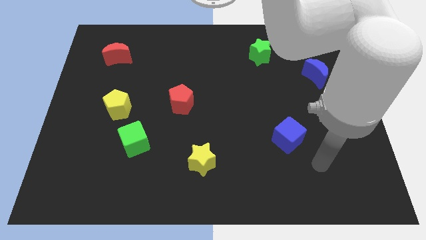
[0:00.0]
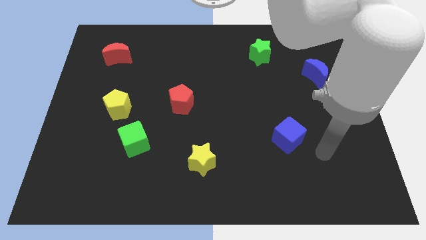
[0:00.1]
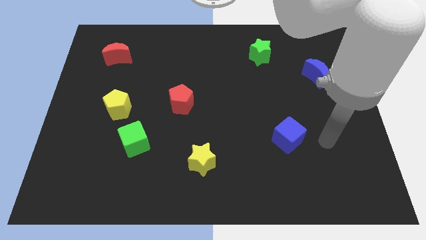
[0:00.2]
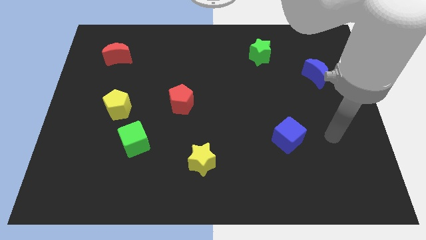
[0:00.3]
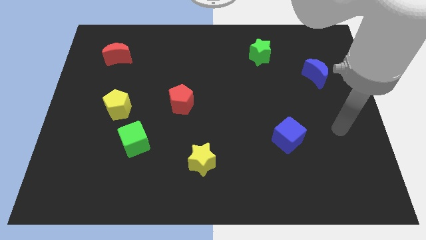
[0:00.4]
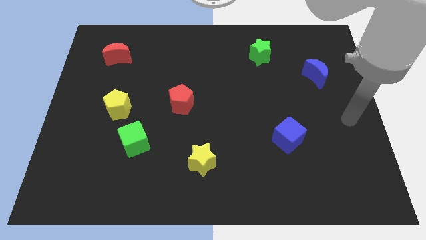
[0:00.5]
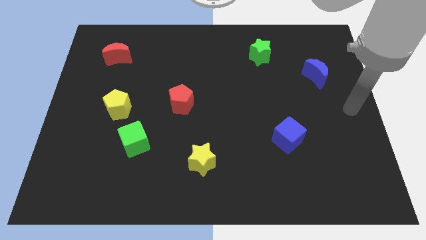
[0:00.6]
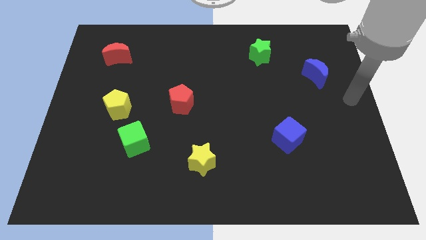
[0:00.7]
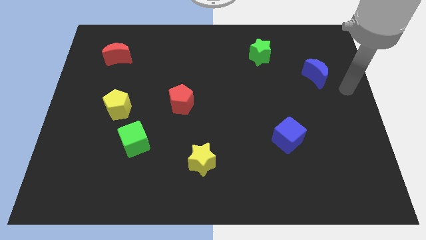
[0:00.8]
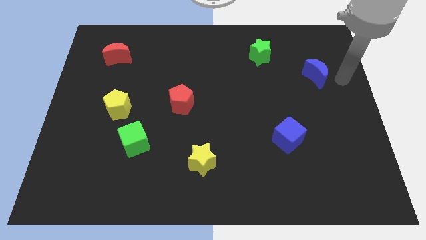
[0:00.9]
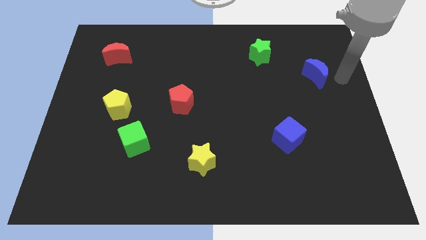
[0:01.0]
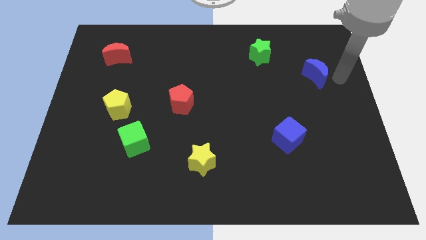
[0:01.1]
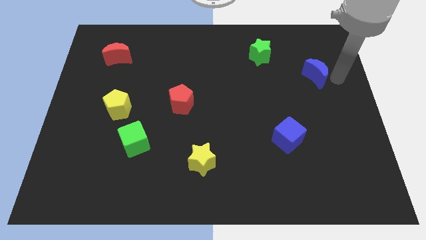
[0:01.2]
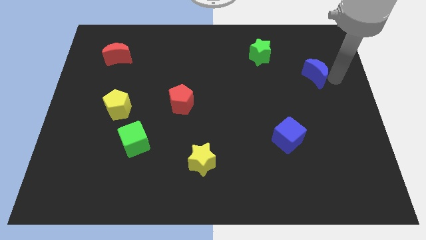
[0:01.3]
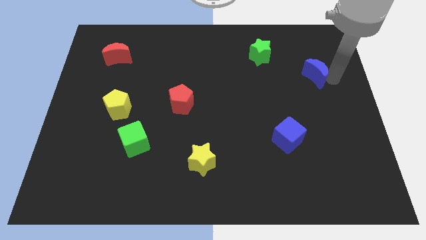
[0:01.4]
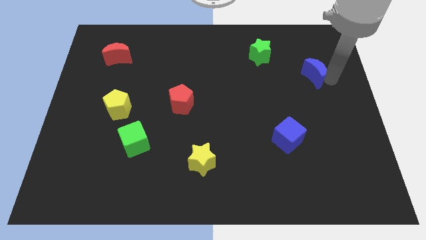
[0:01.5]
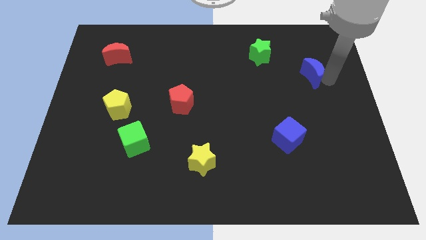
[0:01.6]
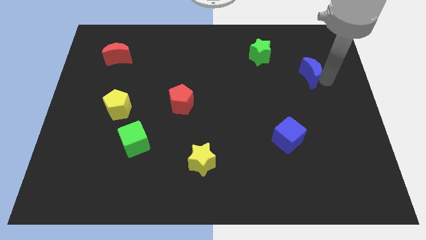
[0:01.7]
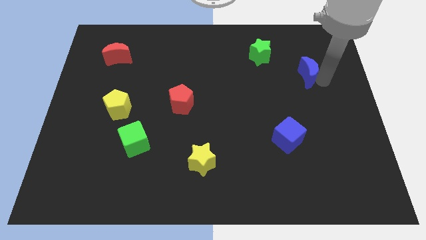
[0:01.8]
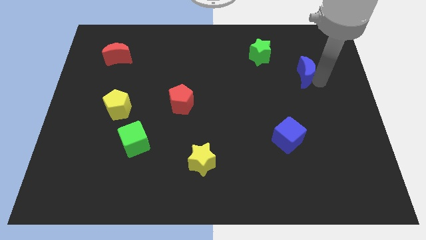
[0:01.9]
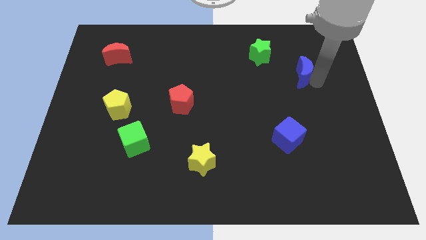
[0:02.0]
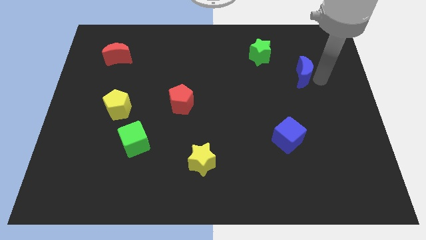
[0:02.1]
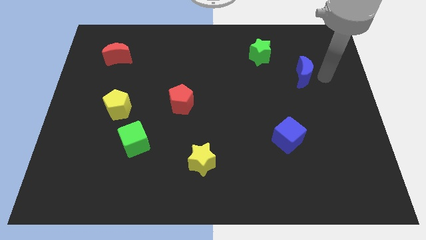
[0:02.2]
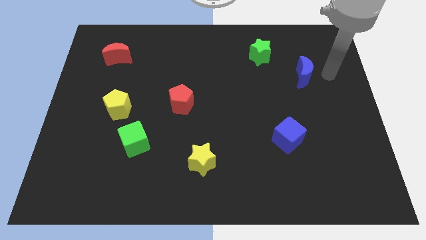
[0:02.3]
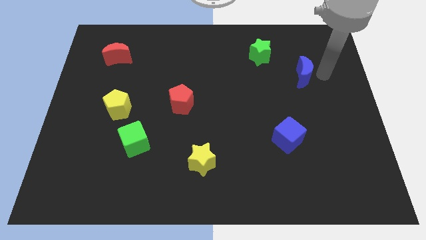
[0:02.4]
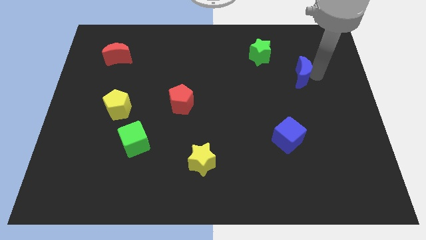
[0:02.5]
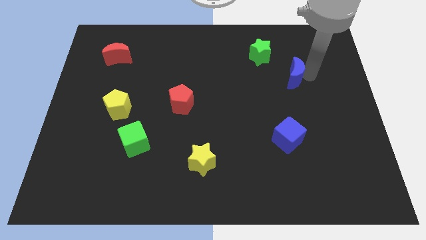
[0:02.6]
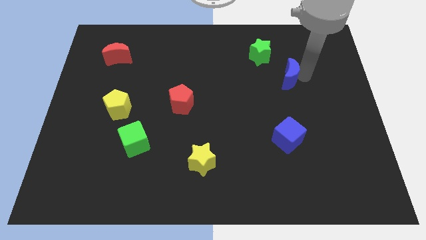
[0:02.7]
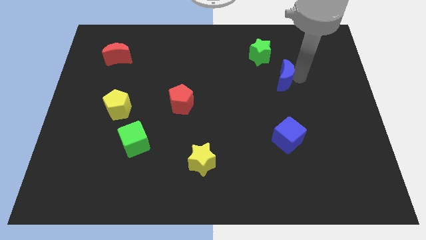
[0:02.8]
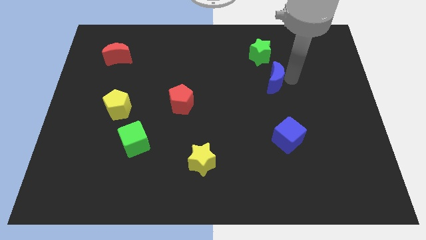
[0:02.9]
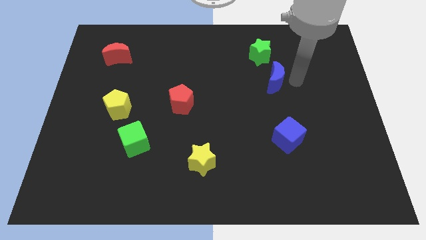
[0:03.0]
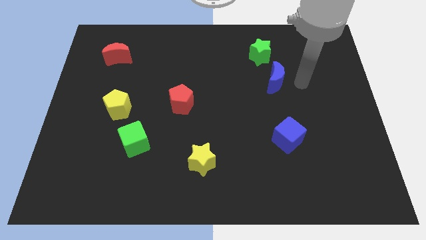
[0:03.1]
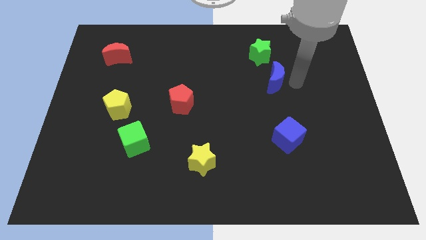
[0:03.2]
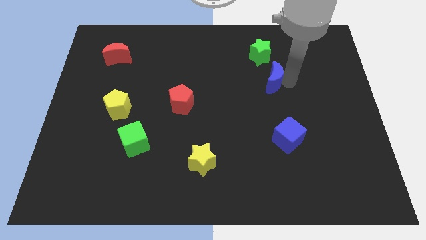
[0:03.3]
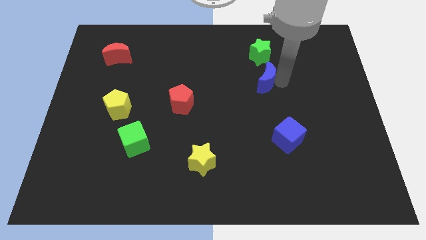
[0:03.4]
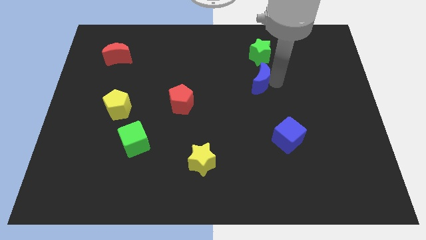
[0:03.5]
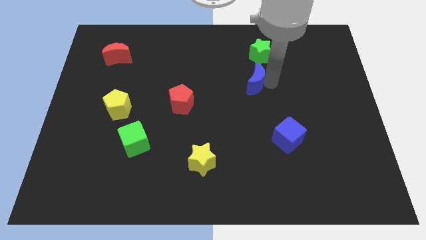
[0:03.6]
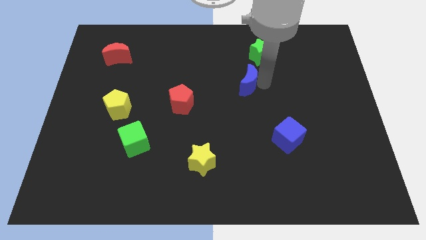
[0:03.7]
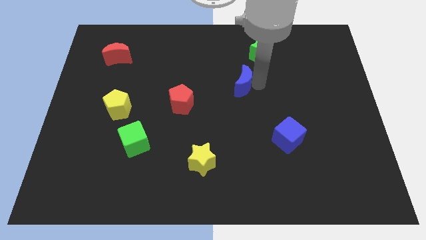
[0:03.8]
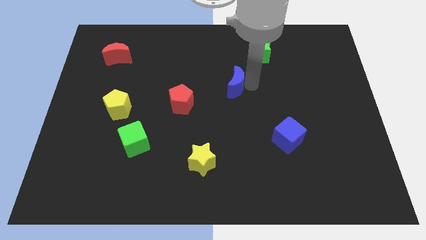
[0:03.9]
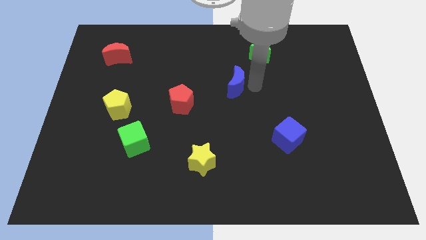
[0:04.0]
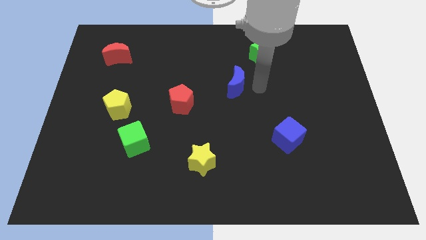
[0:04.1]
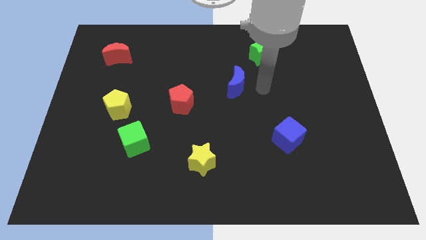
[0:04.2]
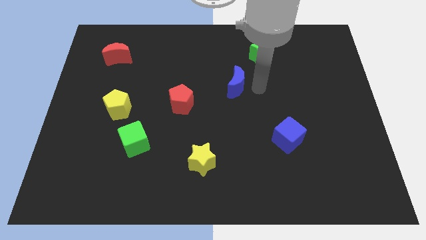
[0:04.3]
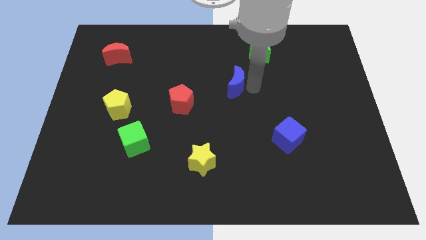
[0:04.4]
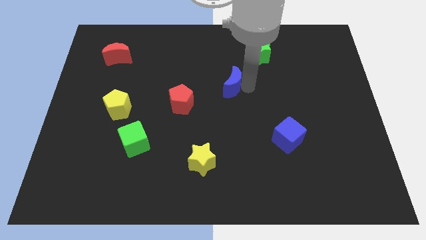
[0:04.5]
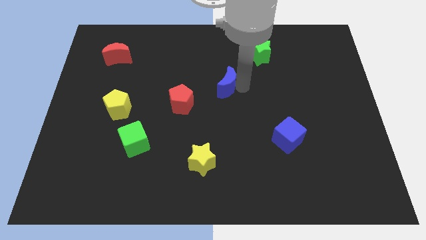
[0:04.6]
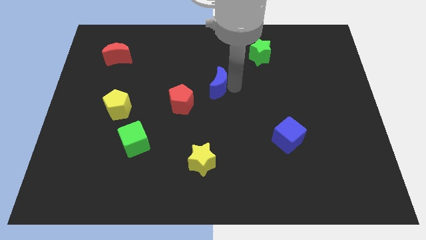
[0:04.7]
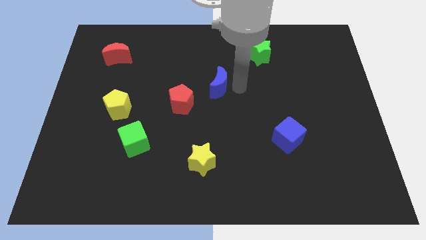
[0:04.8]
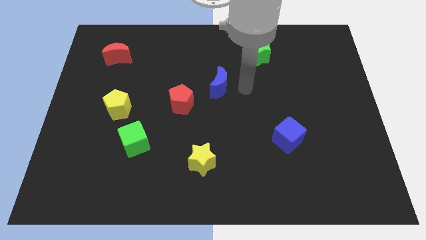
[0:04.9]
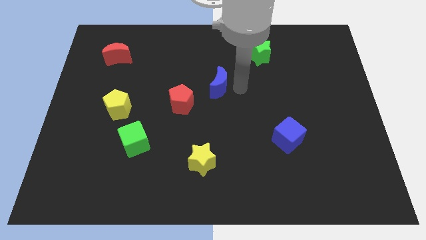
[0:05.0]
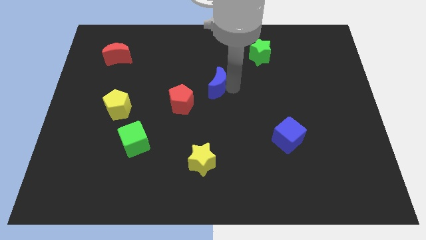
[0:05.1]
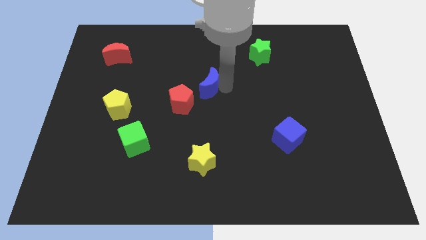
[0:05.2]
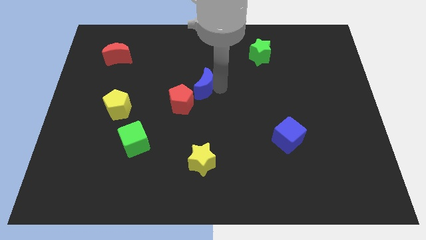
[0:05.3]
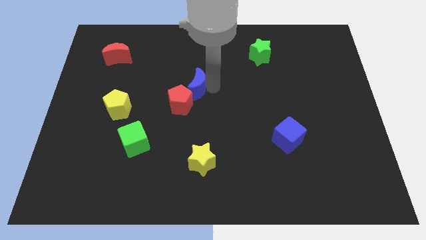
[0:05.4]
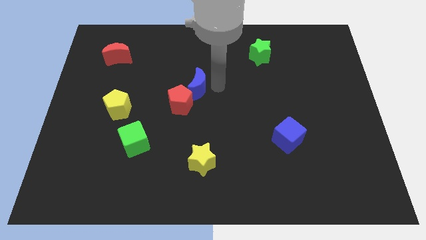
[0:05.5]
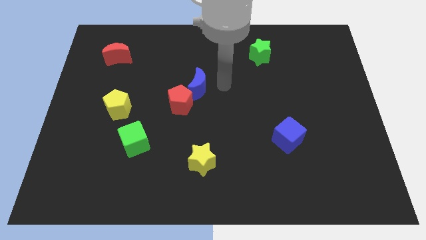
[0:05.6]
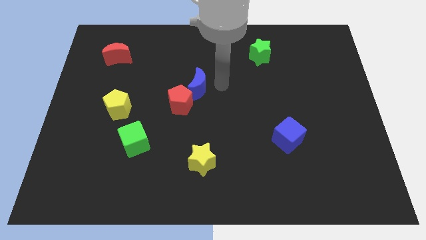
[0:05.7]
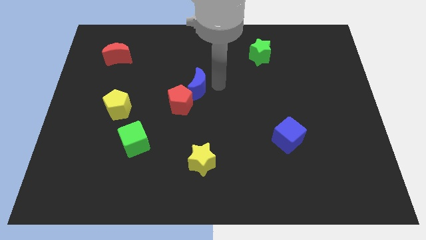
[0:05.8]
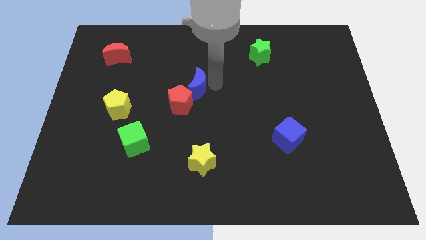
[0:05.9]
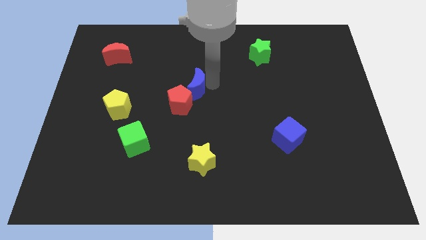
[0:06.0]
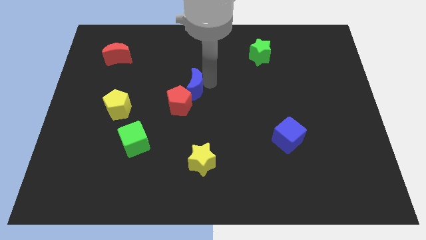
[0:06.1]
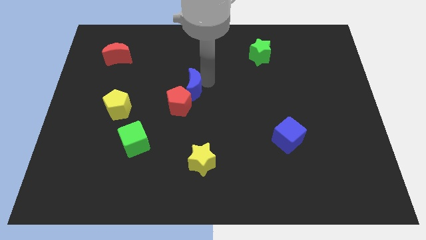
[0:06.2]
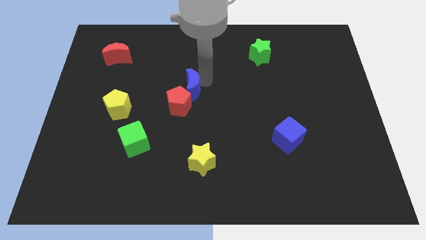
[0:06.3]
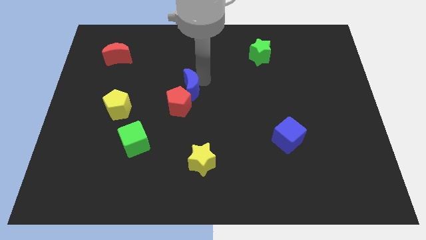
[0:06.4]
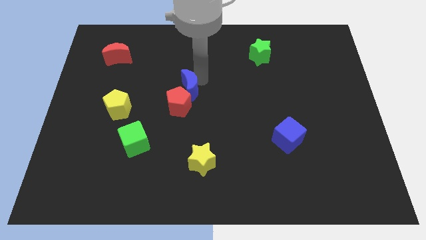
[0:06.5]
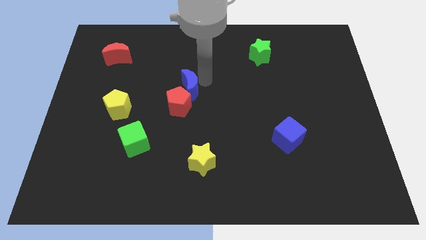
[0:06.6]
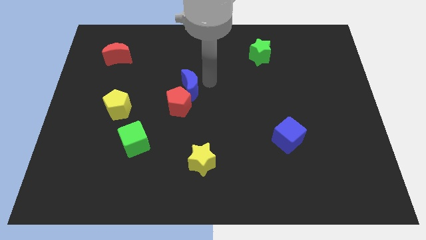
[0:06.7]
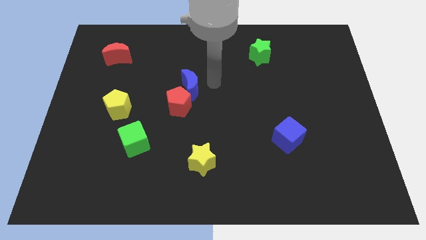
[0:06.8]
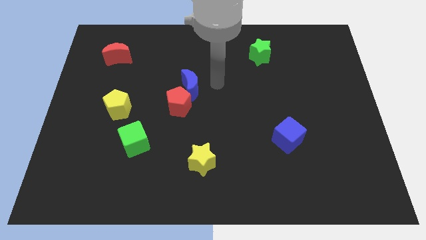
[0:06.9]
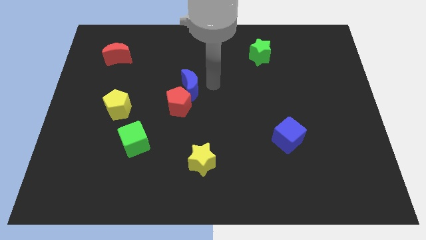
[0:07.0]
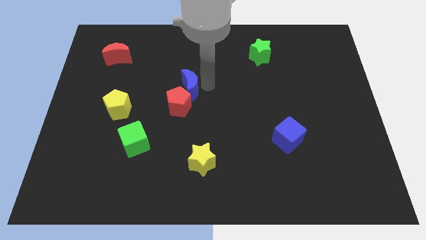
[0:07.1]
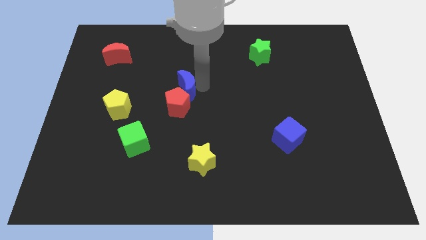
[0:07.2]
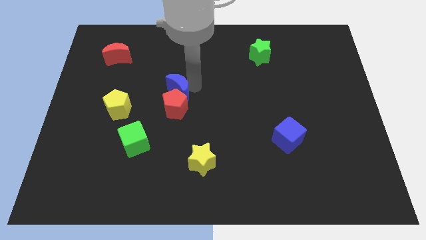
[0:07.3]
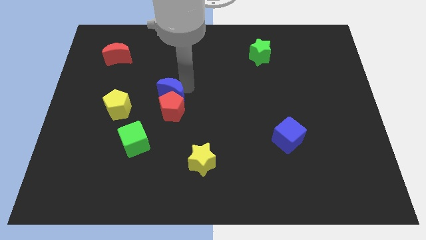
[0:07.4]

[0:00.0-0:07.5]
push the blue moon right of the yellow pentagon

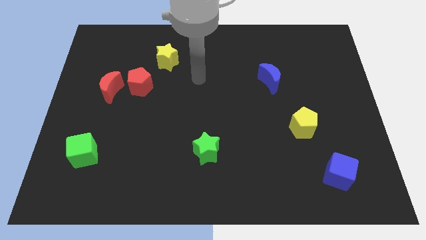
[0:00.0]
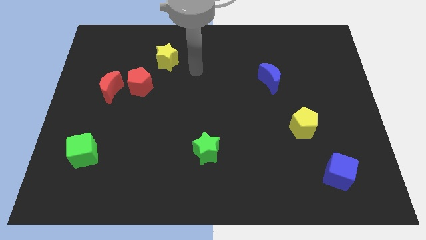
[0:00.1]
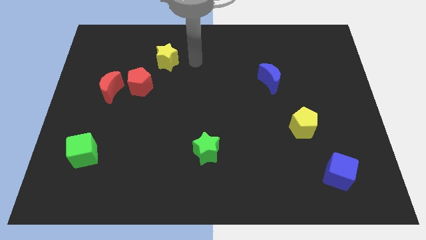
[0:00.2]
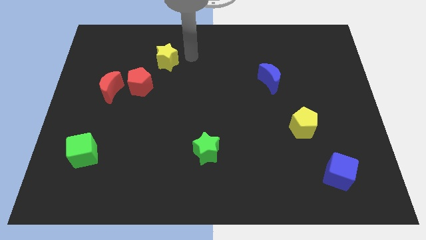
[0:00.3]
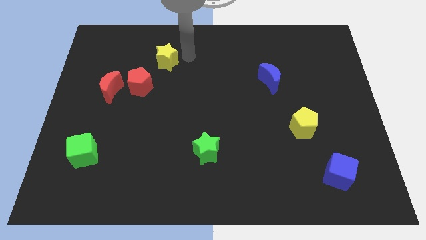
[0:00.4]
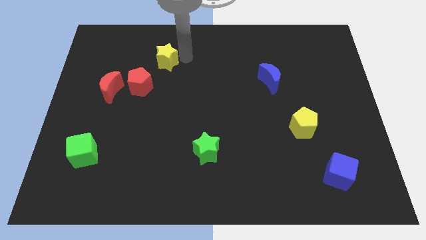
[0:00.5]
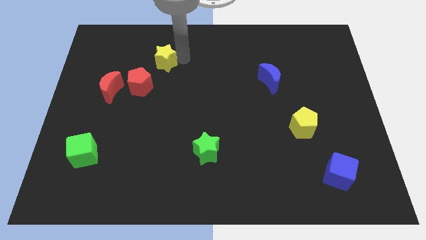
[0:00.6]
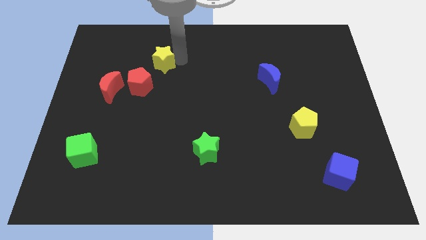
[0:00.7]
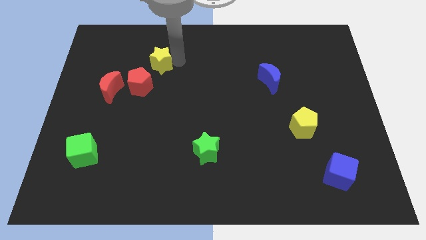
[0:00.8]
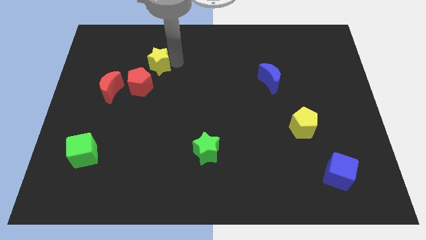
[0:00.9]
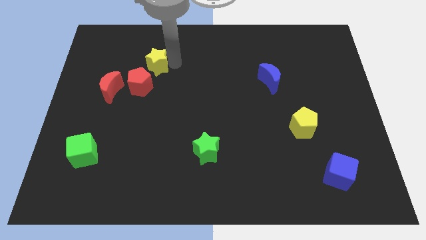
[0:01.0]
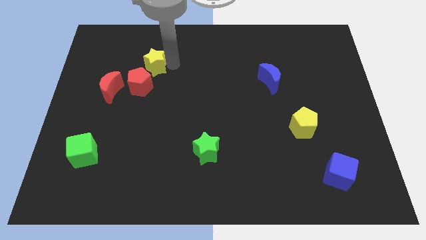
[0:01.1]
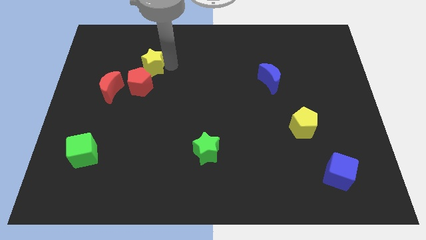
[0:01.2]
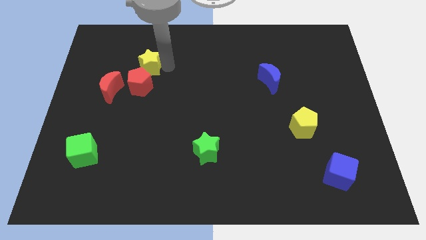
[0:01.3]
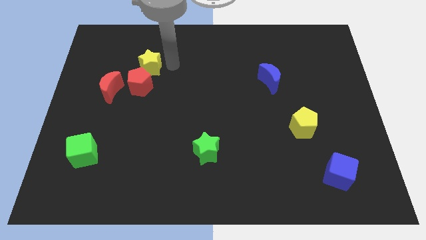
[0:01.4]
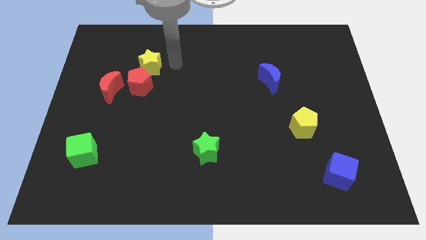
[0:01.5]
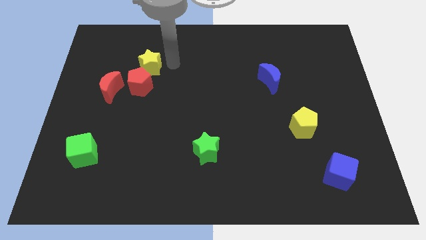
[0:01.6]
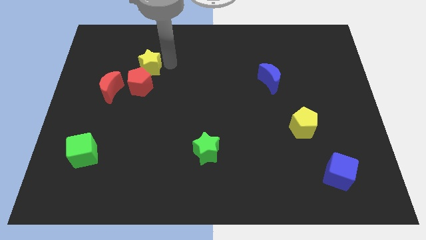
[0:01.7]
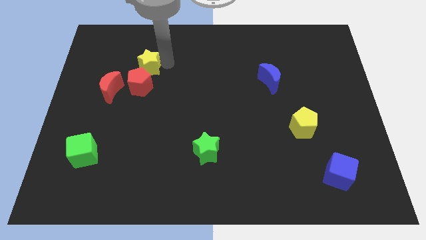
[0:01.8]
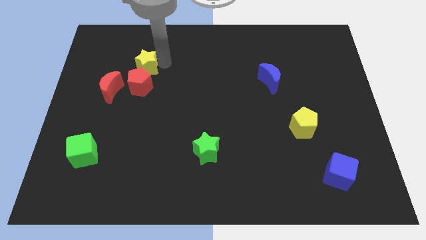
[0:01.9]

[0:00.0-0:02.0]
move the yellow star diagonally up and to the left of the red pentagon
